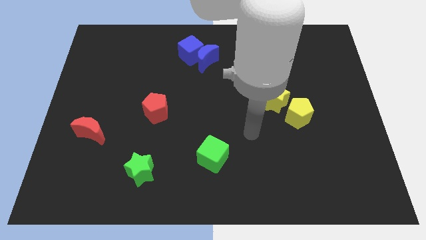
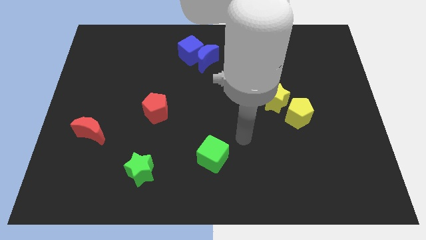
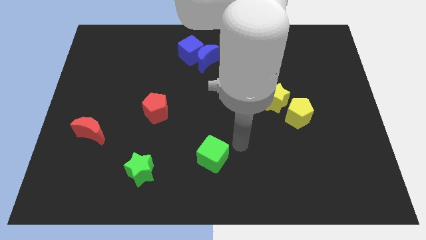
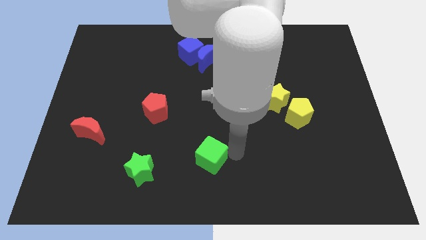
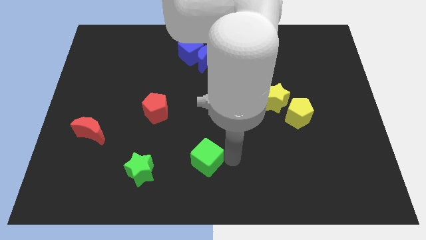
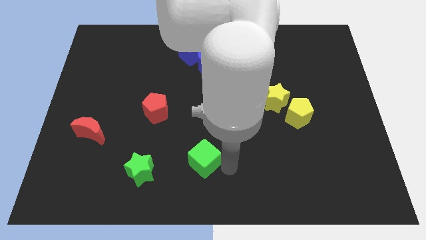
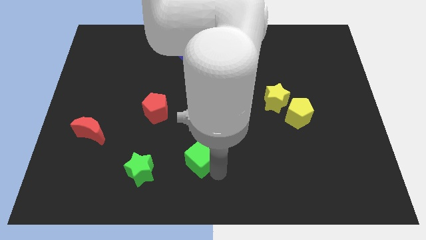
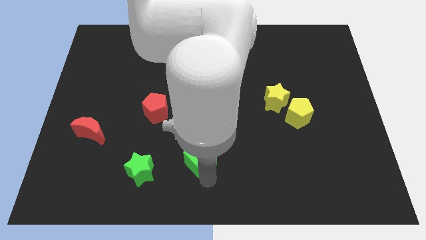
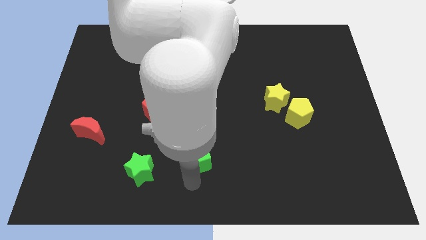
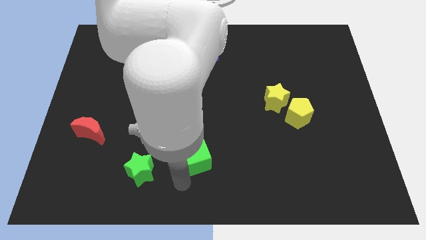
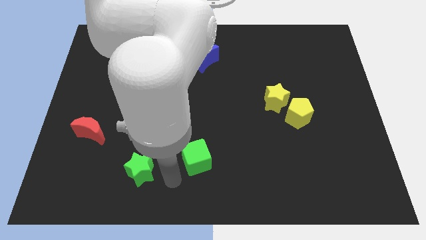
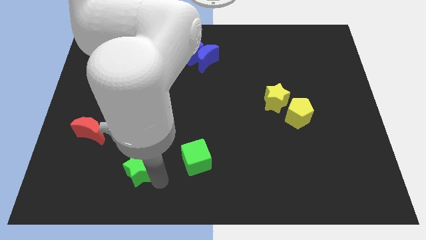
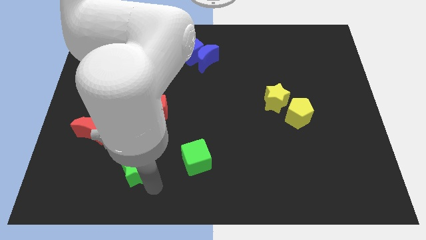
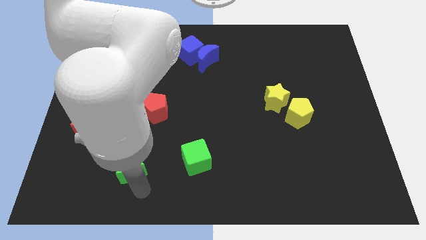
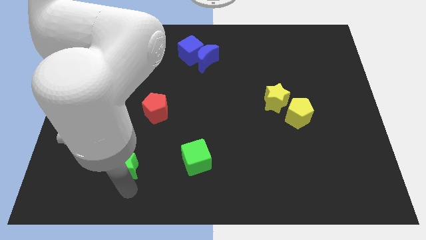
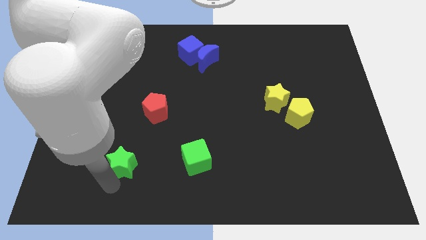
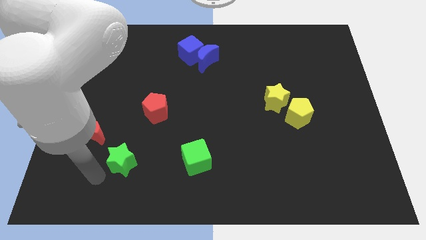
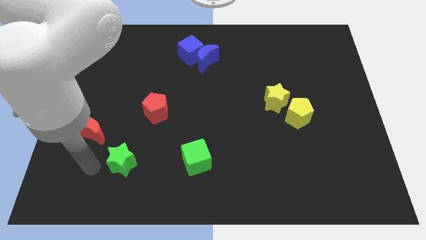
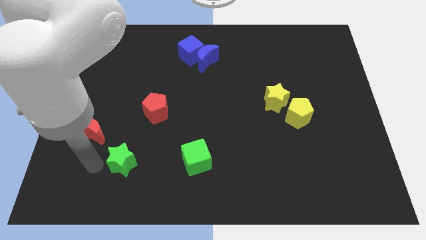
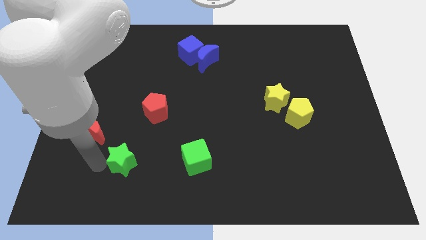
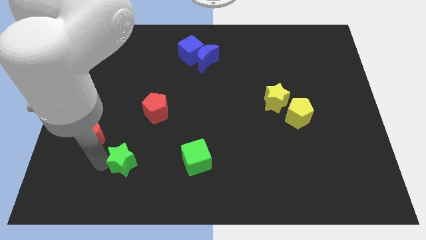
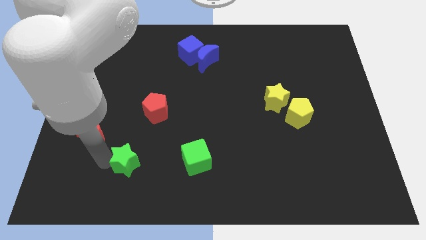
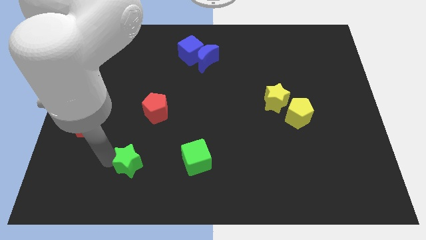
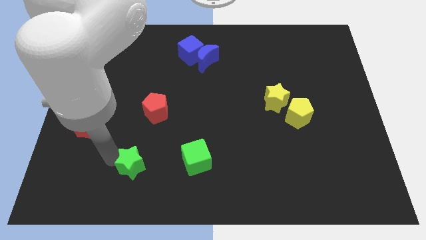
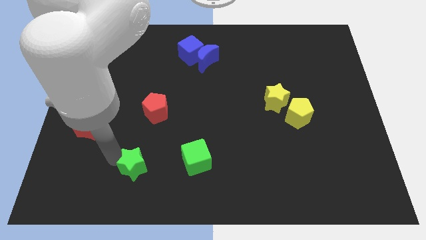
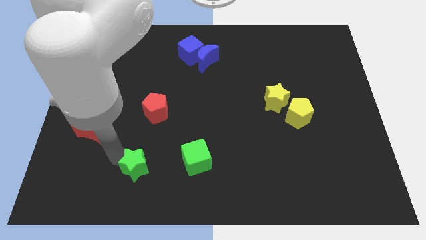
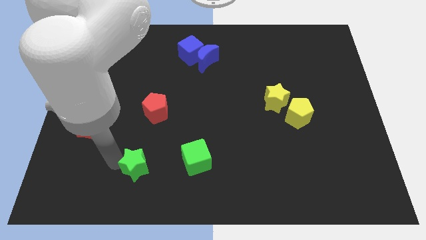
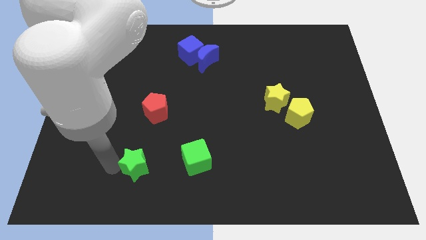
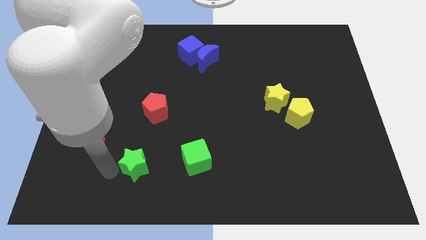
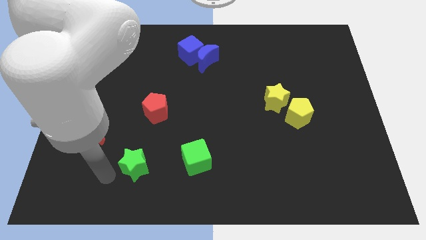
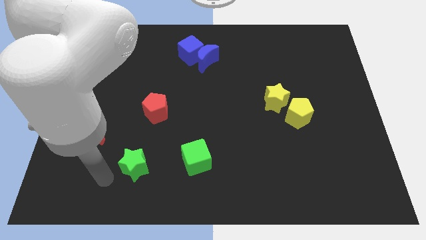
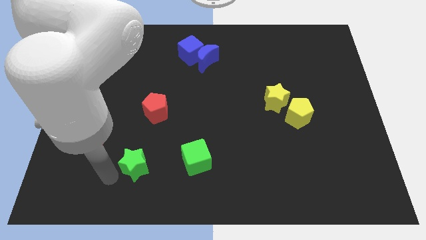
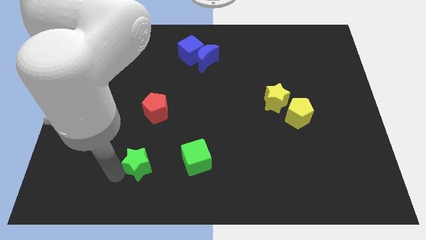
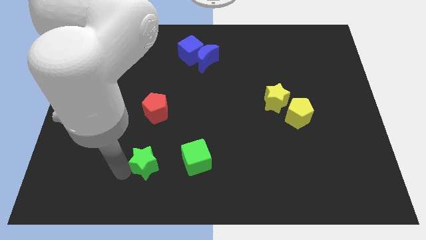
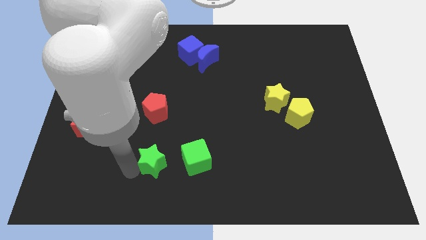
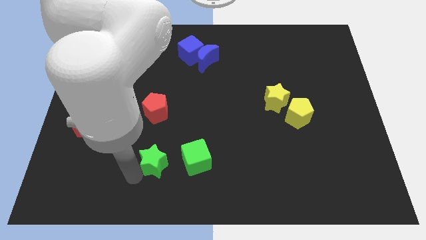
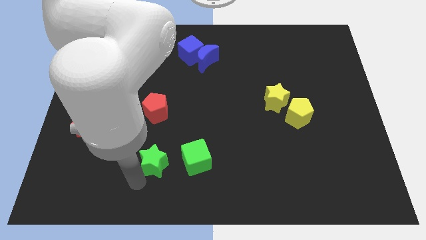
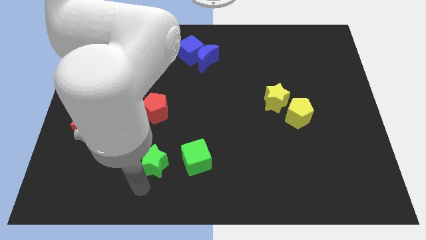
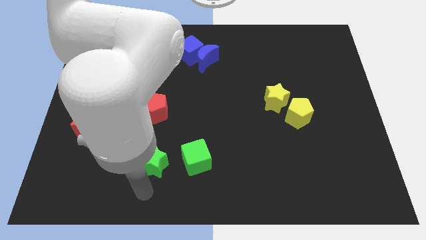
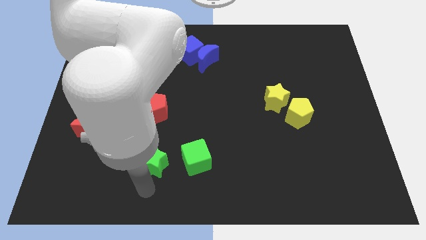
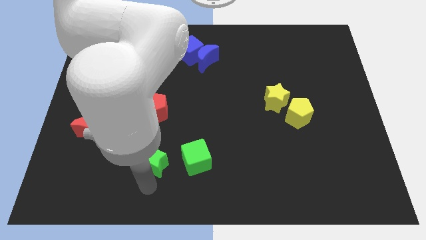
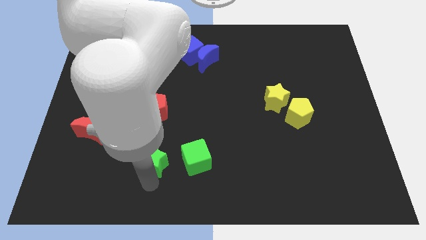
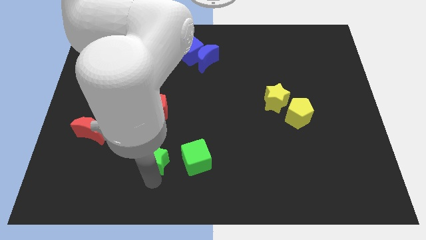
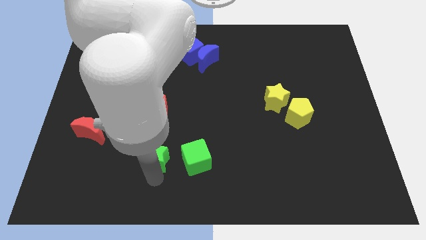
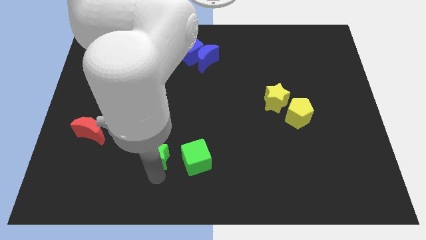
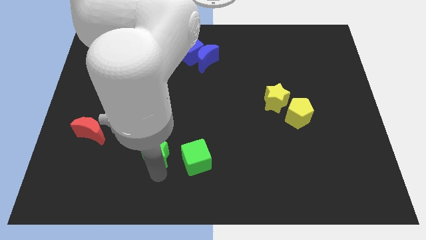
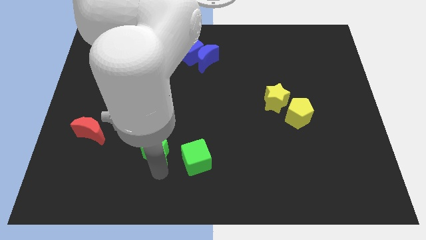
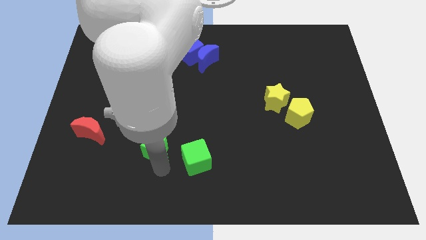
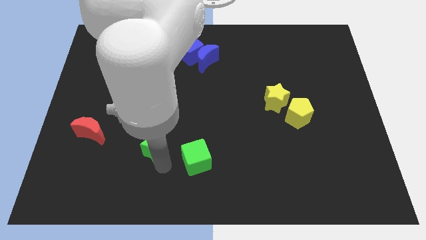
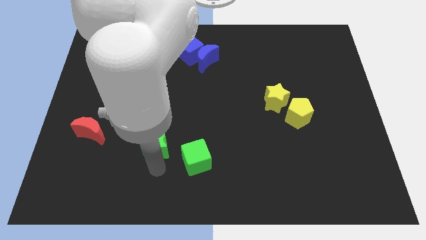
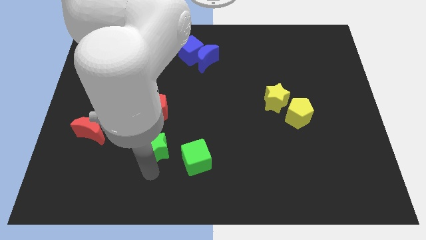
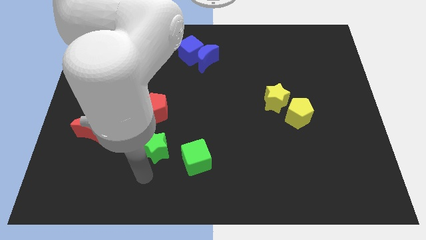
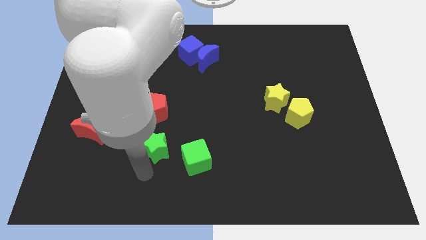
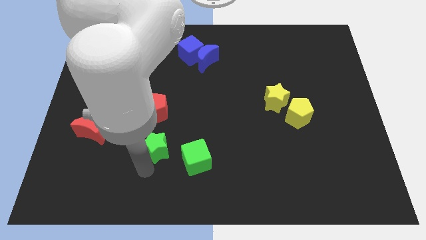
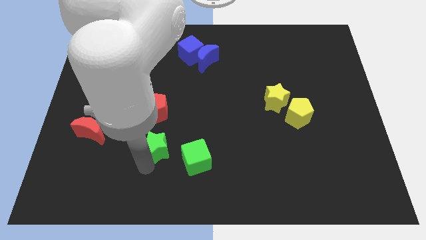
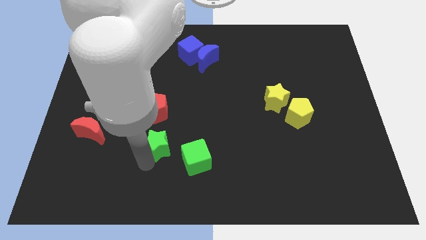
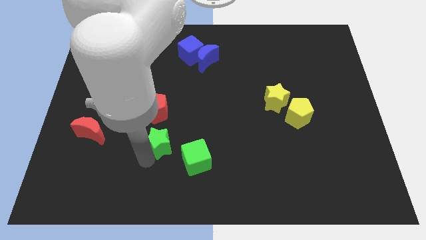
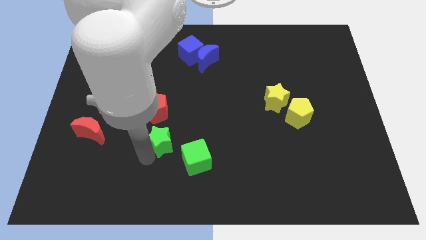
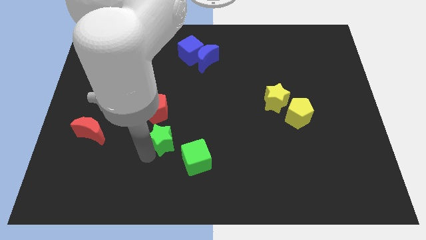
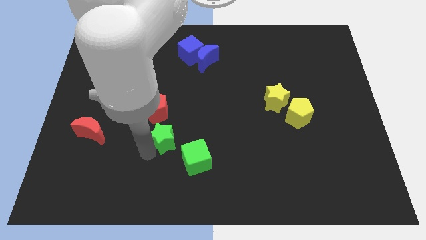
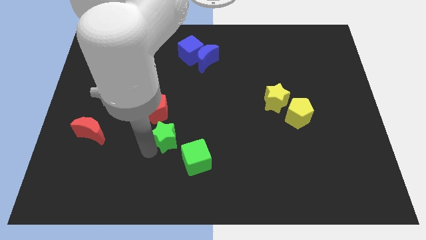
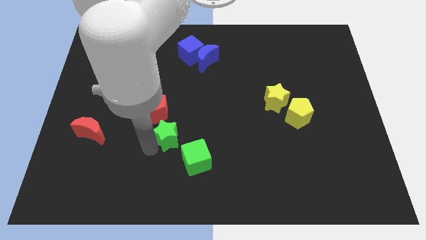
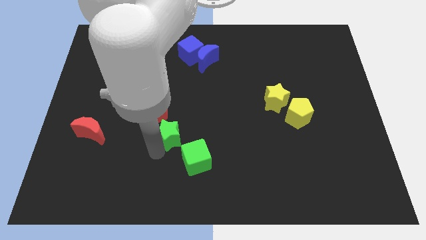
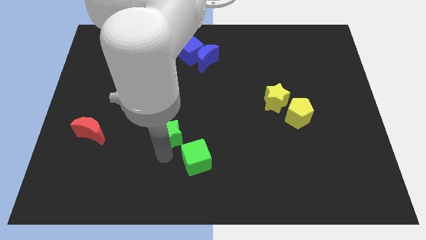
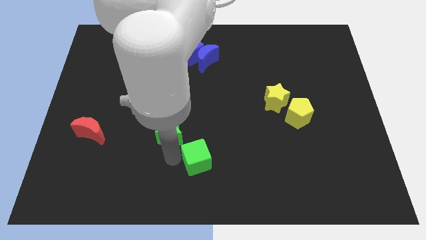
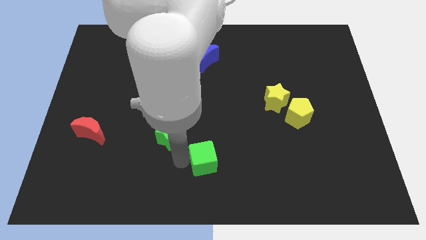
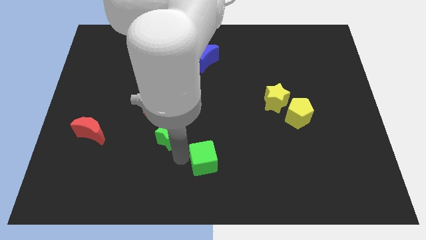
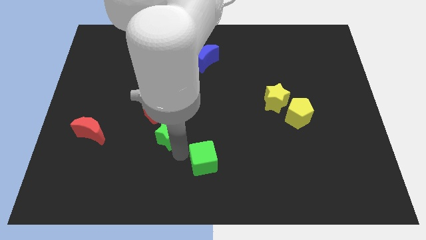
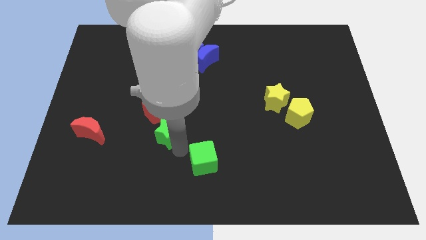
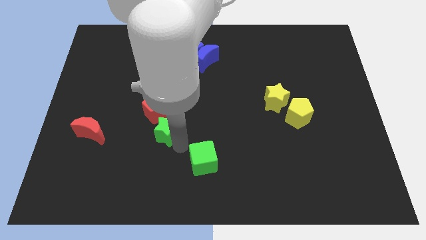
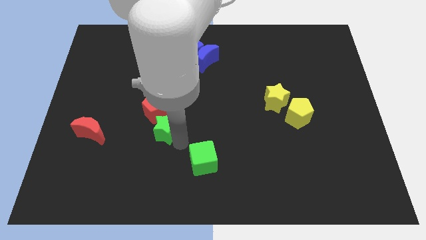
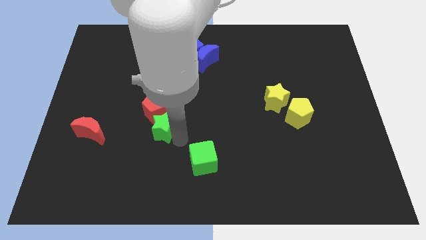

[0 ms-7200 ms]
slide the green star towards the red pentagon
